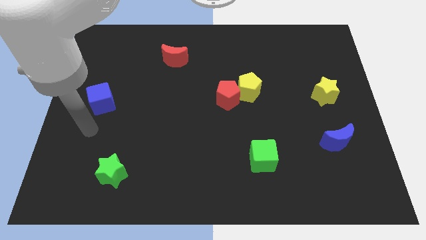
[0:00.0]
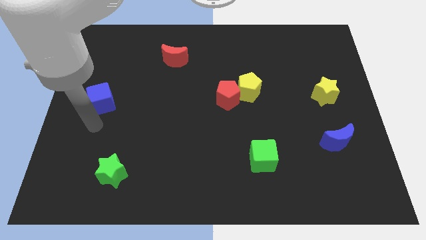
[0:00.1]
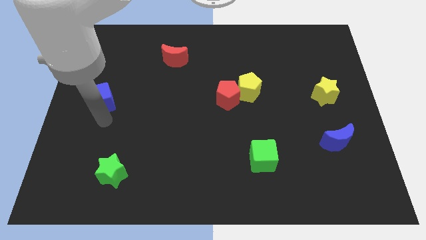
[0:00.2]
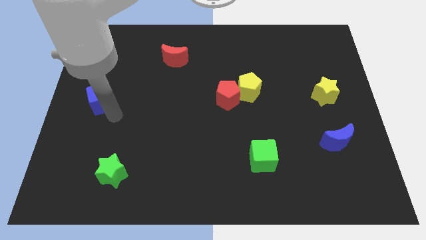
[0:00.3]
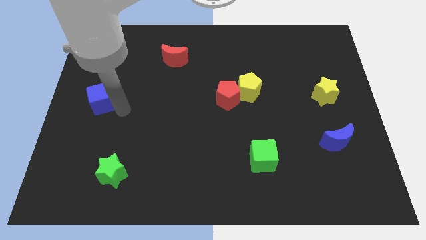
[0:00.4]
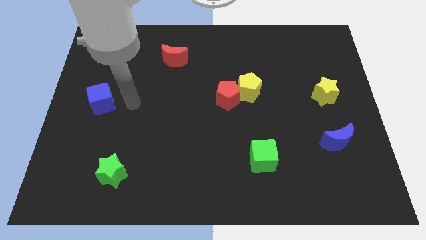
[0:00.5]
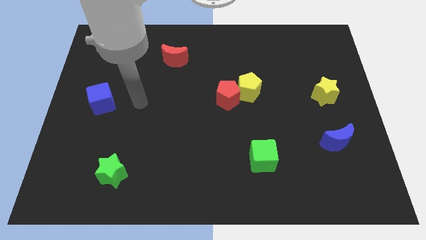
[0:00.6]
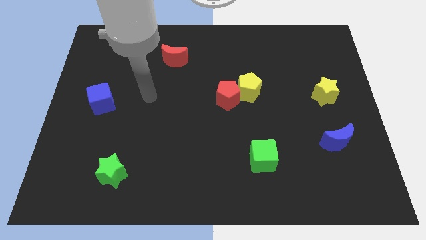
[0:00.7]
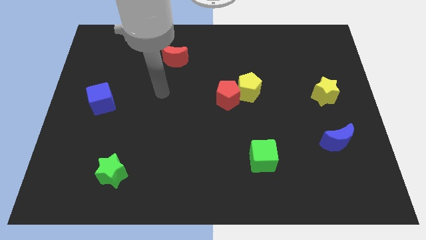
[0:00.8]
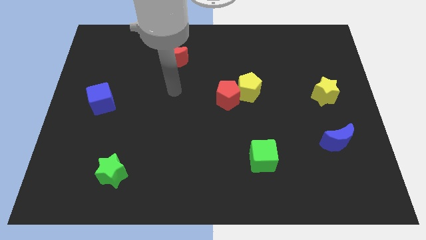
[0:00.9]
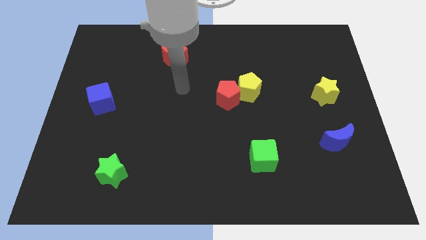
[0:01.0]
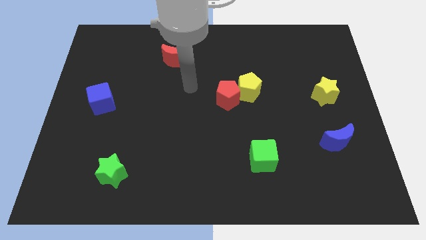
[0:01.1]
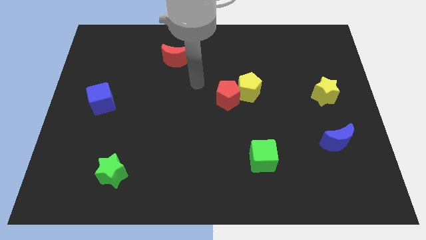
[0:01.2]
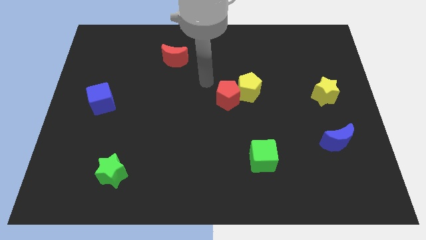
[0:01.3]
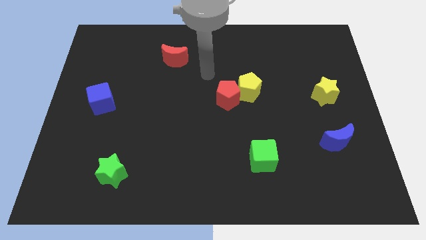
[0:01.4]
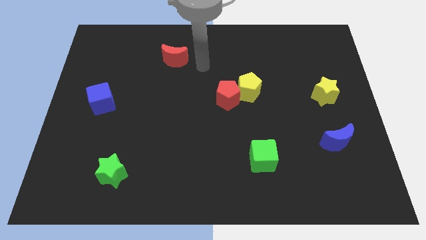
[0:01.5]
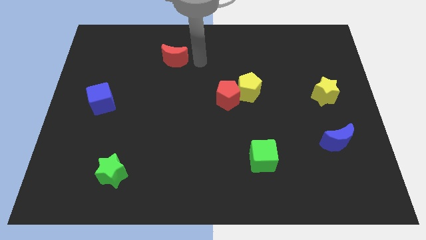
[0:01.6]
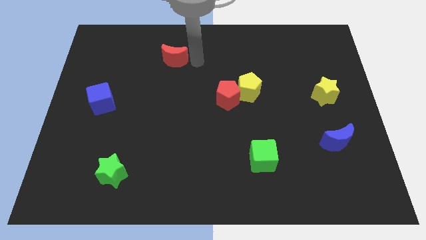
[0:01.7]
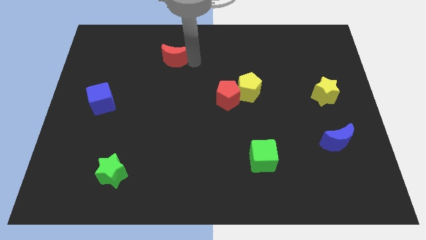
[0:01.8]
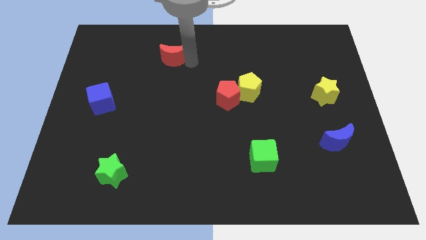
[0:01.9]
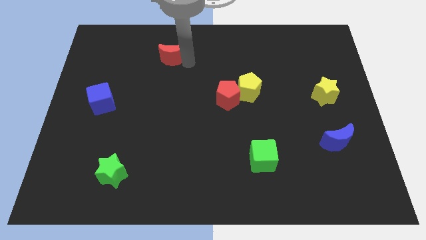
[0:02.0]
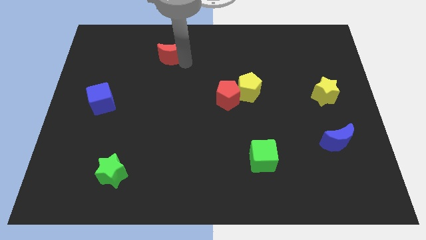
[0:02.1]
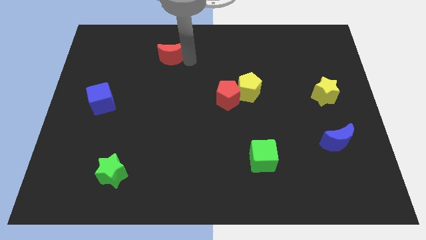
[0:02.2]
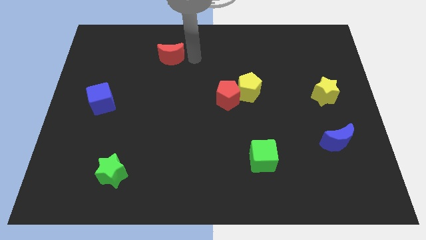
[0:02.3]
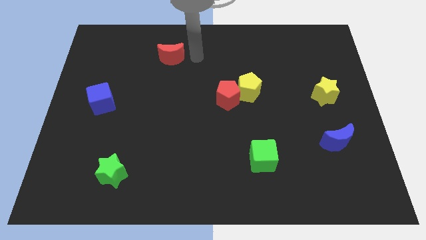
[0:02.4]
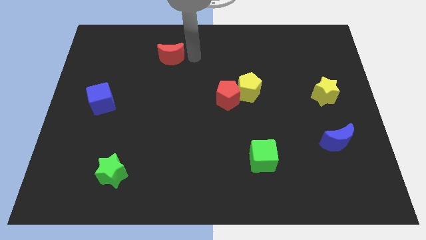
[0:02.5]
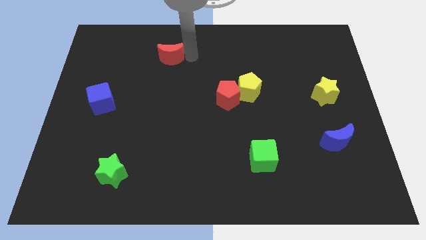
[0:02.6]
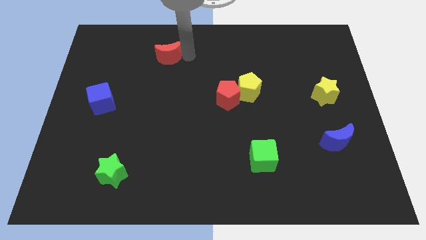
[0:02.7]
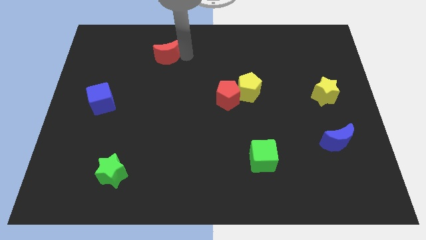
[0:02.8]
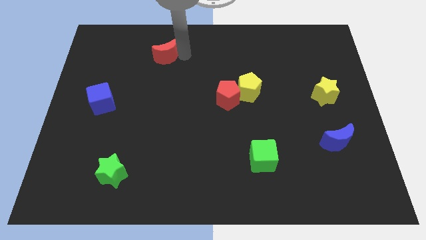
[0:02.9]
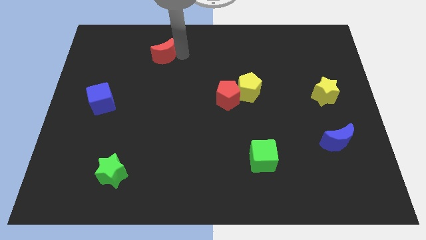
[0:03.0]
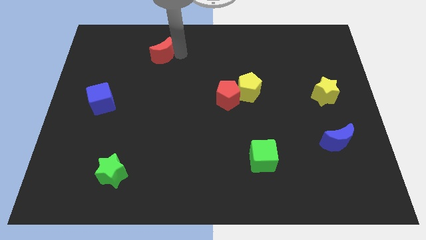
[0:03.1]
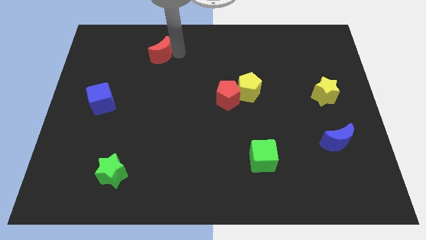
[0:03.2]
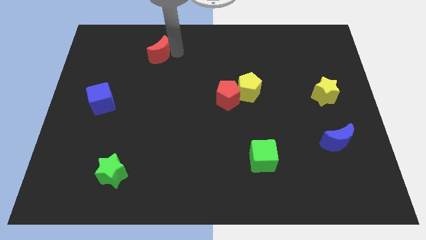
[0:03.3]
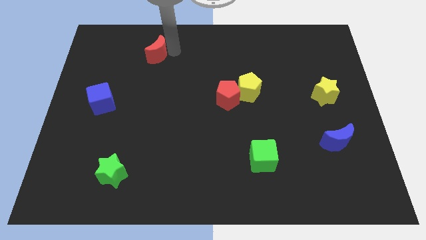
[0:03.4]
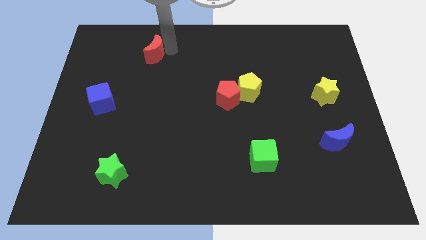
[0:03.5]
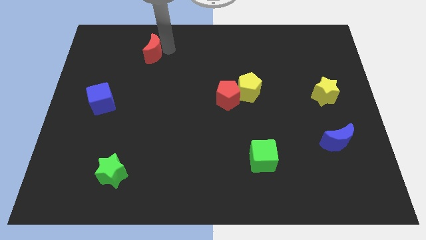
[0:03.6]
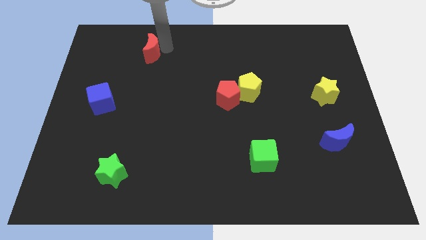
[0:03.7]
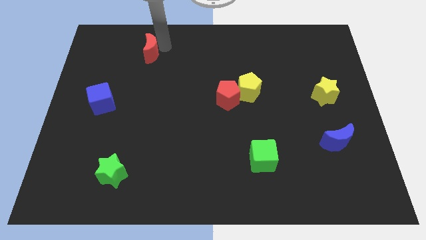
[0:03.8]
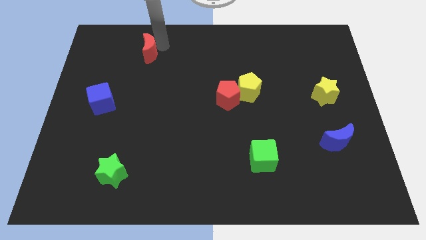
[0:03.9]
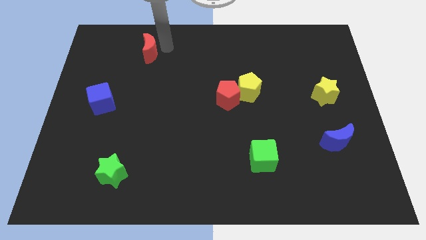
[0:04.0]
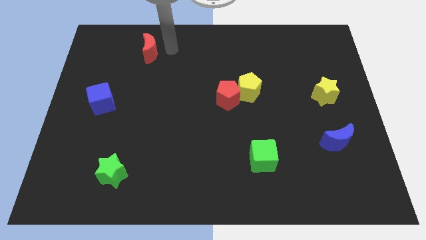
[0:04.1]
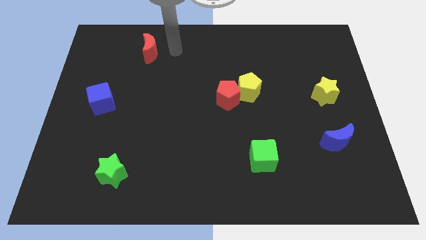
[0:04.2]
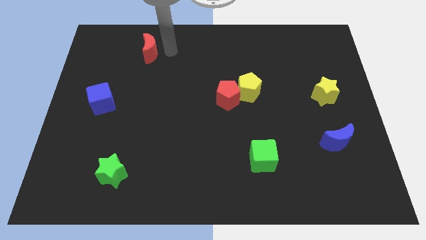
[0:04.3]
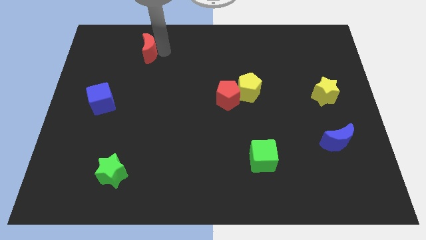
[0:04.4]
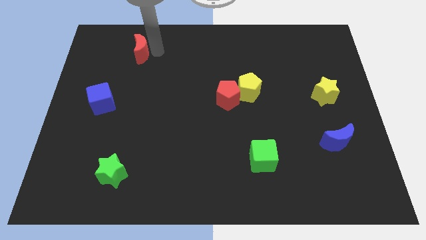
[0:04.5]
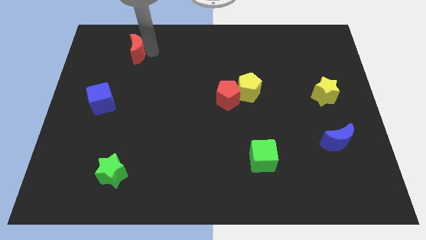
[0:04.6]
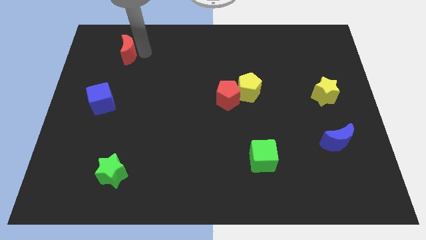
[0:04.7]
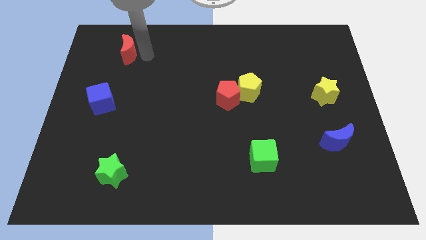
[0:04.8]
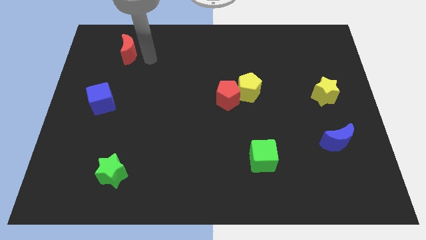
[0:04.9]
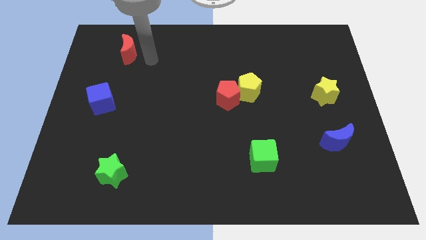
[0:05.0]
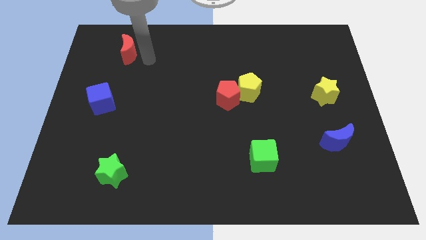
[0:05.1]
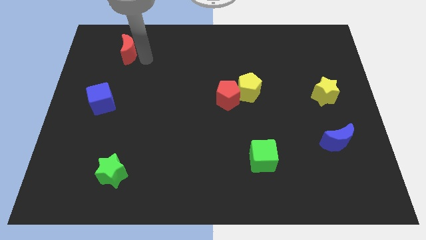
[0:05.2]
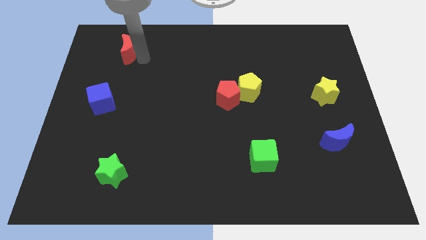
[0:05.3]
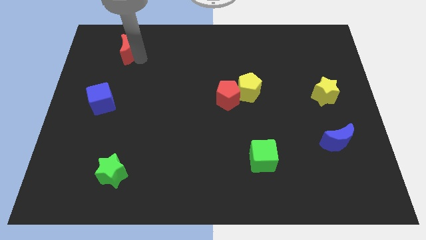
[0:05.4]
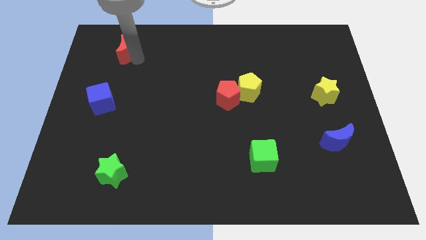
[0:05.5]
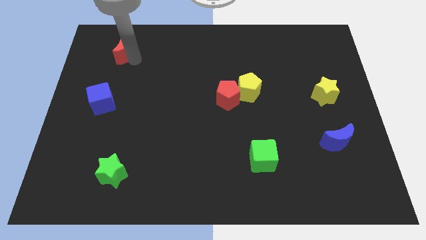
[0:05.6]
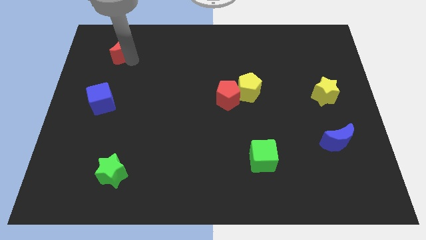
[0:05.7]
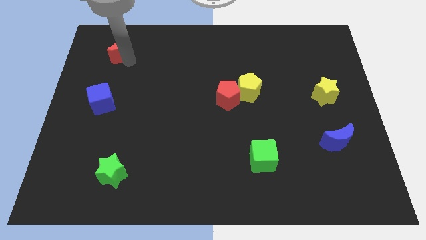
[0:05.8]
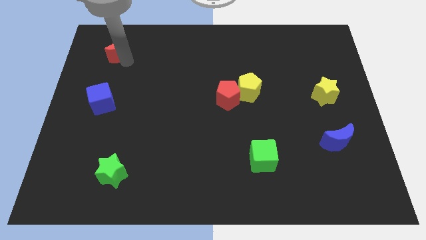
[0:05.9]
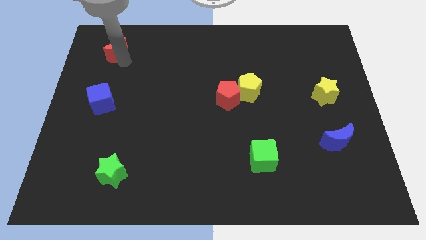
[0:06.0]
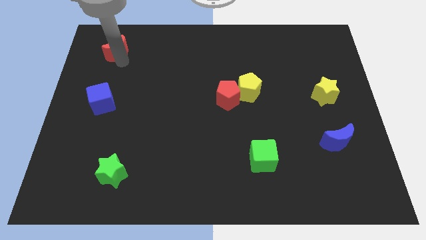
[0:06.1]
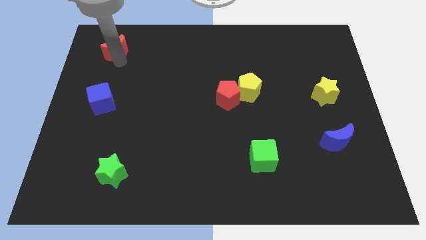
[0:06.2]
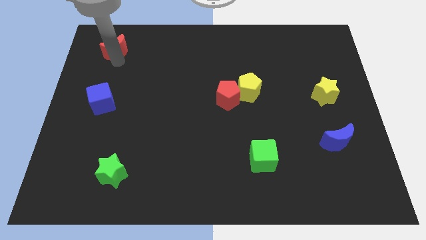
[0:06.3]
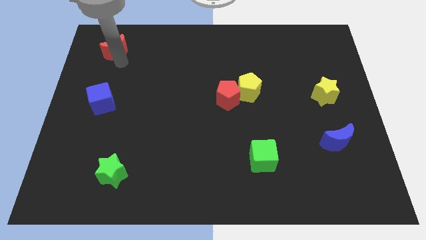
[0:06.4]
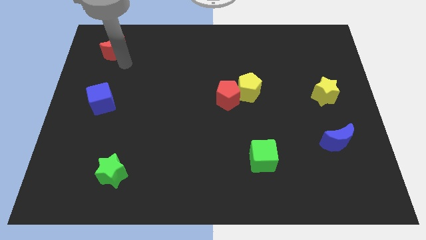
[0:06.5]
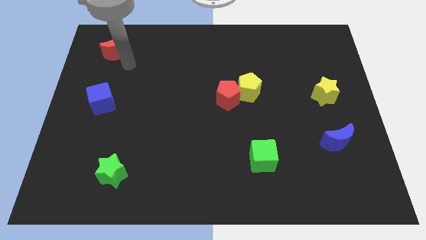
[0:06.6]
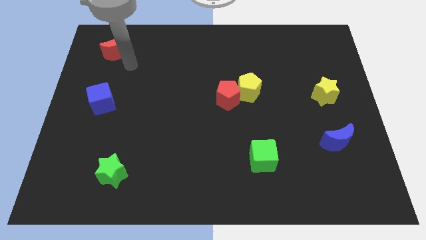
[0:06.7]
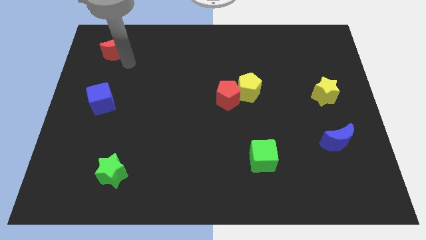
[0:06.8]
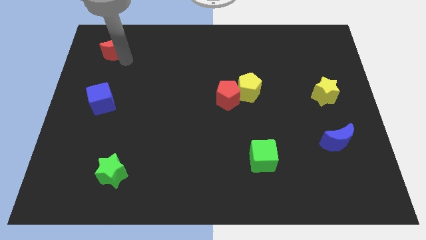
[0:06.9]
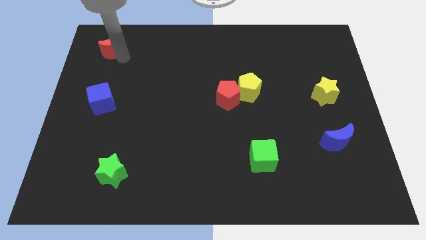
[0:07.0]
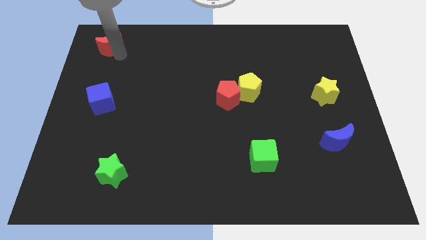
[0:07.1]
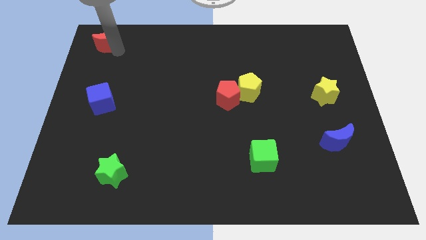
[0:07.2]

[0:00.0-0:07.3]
slide the red moon to the upper left corner
